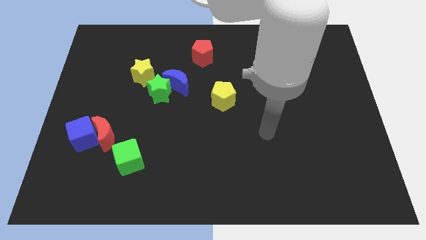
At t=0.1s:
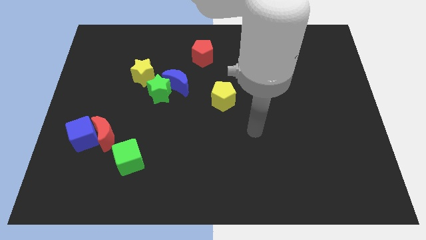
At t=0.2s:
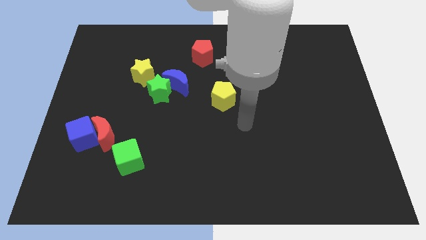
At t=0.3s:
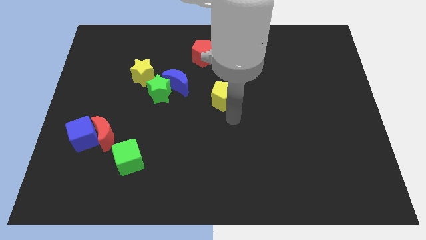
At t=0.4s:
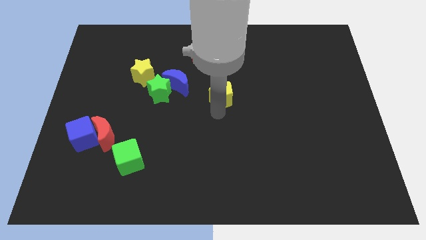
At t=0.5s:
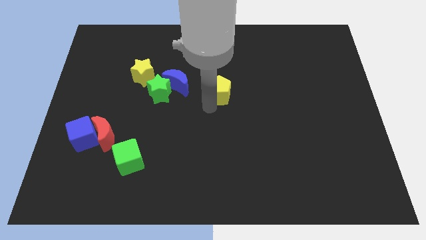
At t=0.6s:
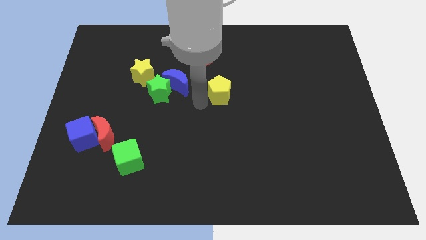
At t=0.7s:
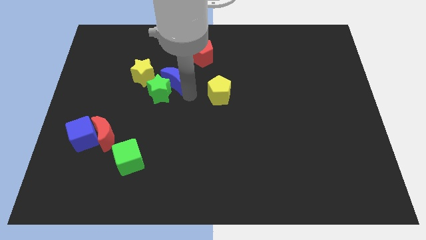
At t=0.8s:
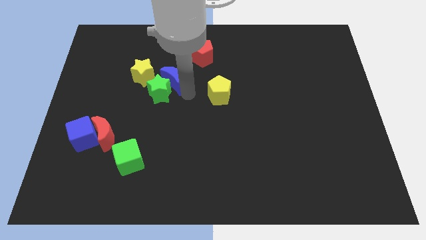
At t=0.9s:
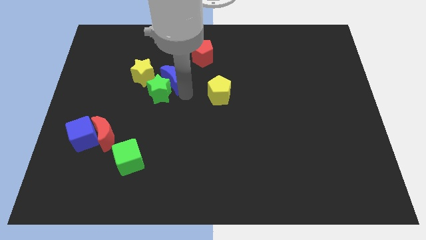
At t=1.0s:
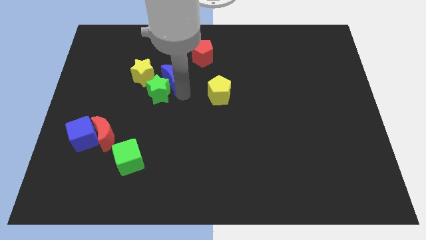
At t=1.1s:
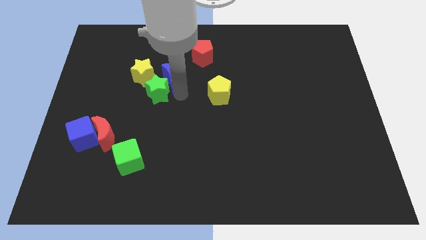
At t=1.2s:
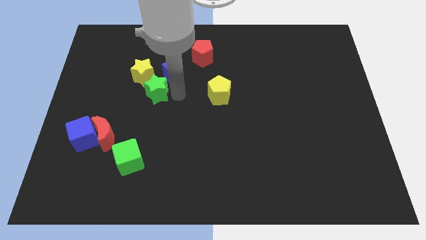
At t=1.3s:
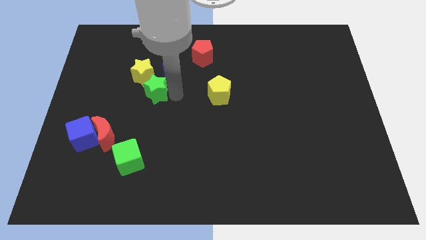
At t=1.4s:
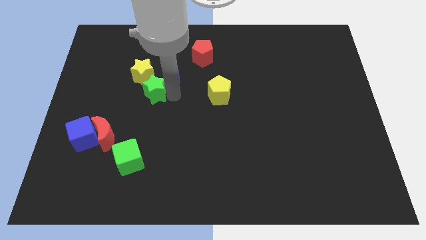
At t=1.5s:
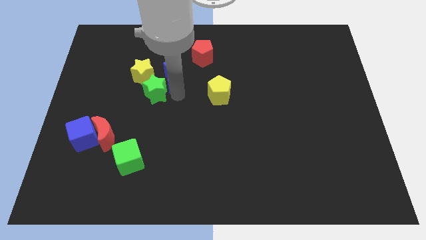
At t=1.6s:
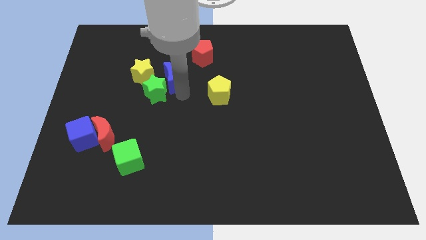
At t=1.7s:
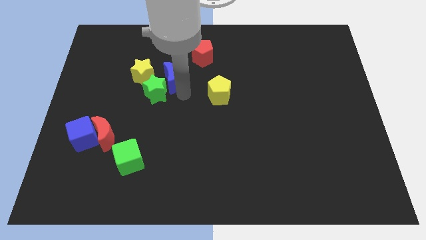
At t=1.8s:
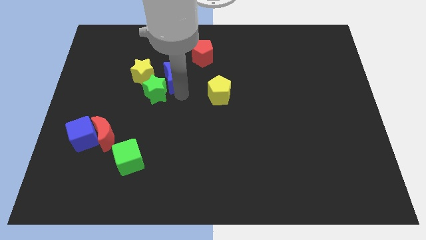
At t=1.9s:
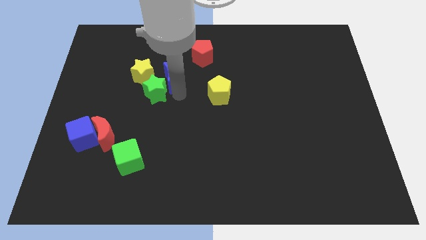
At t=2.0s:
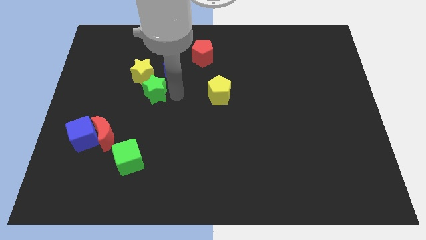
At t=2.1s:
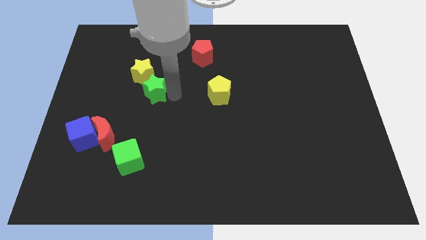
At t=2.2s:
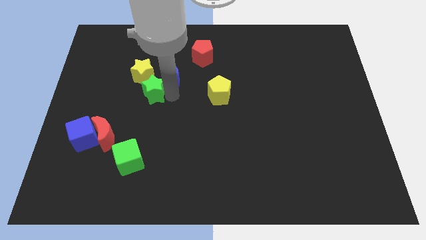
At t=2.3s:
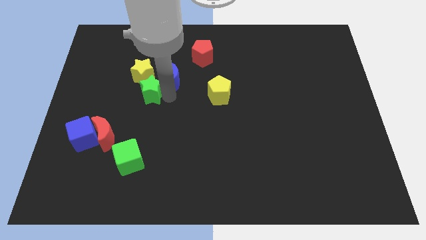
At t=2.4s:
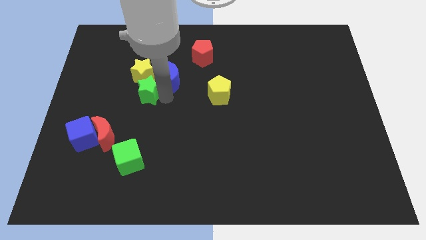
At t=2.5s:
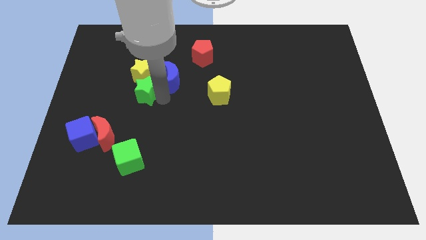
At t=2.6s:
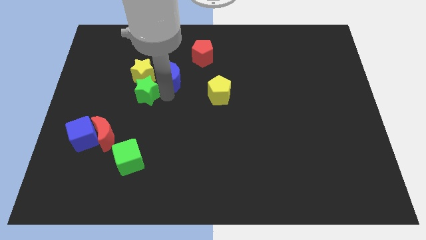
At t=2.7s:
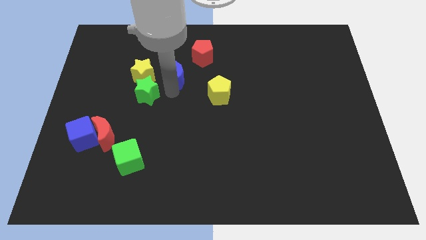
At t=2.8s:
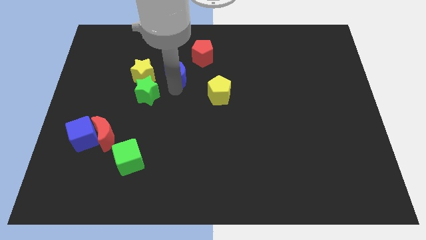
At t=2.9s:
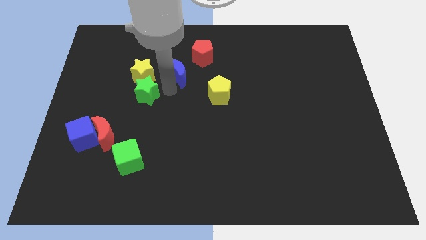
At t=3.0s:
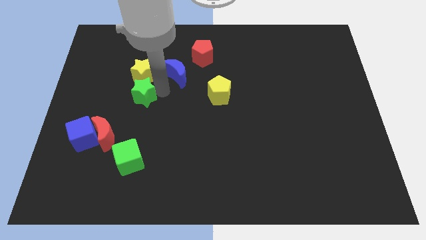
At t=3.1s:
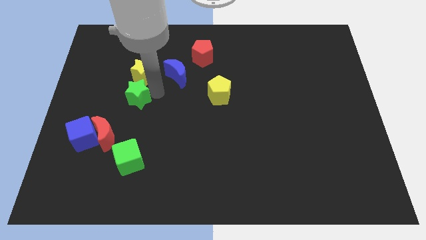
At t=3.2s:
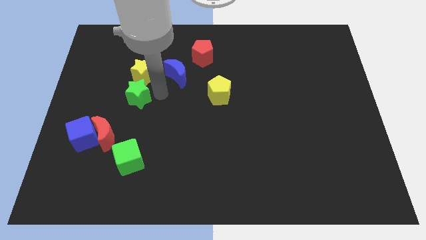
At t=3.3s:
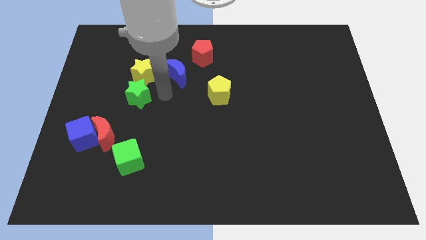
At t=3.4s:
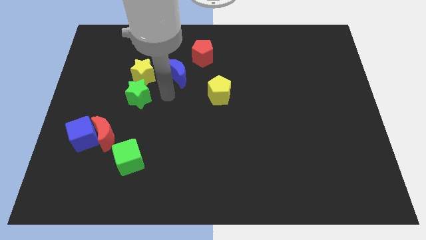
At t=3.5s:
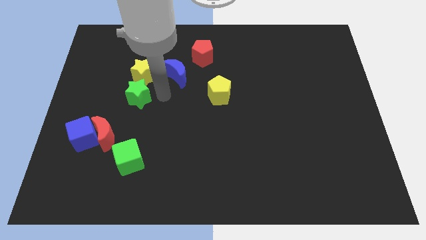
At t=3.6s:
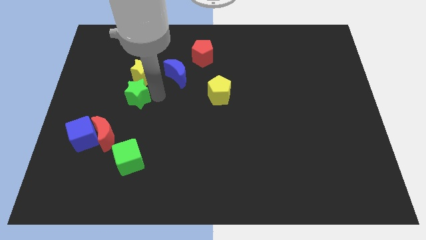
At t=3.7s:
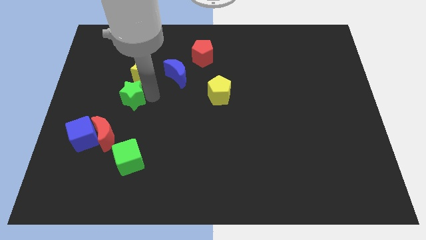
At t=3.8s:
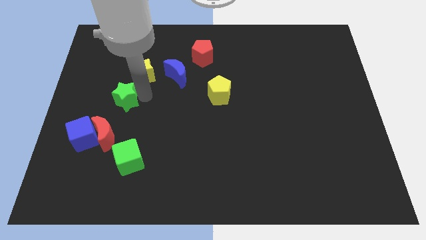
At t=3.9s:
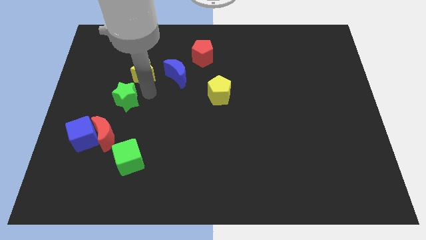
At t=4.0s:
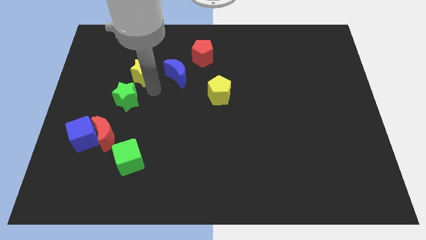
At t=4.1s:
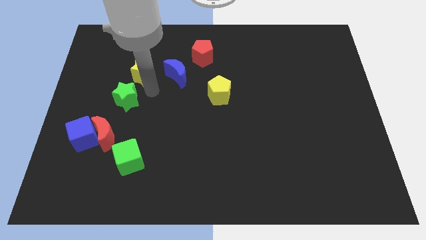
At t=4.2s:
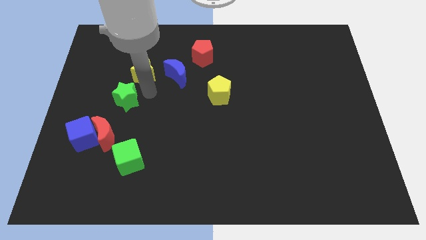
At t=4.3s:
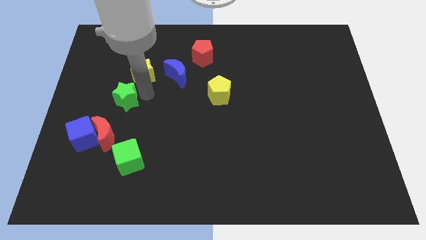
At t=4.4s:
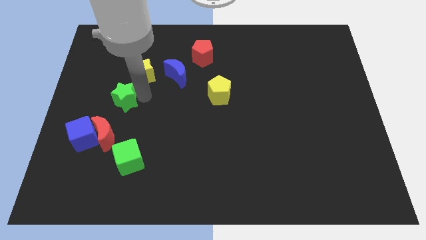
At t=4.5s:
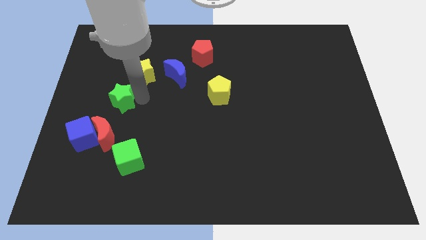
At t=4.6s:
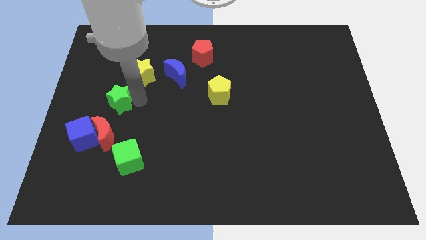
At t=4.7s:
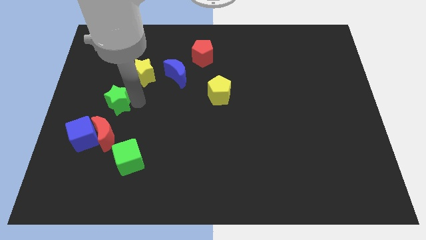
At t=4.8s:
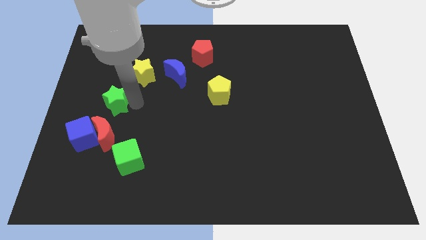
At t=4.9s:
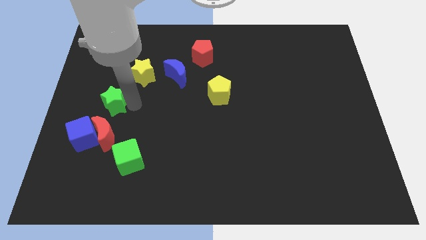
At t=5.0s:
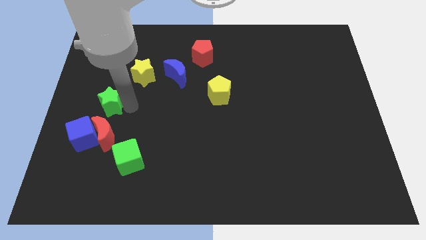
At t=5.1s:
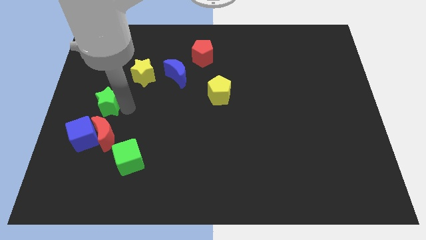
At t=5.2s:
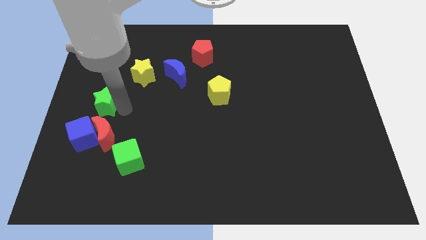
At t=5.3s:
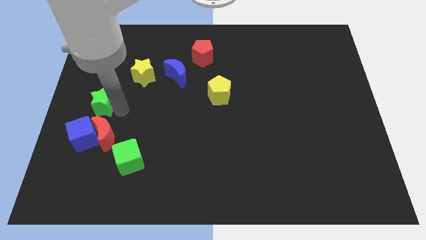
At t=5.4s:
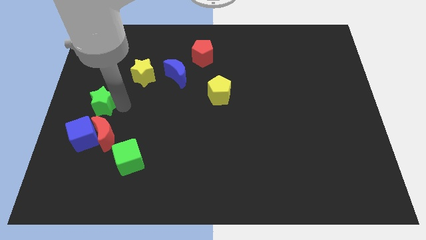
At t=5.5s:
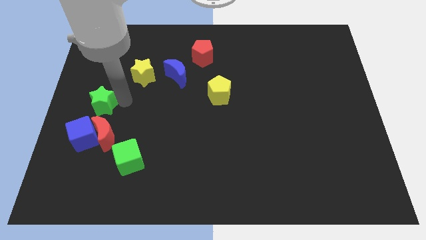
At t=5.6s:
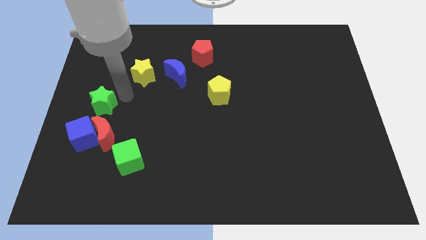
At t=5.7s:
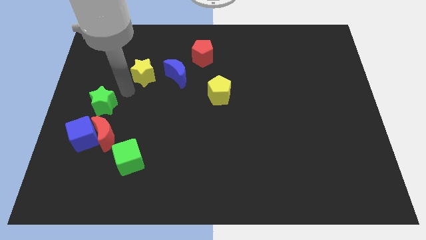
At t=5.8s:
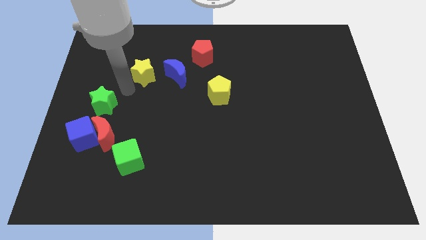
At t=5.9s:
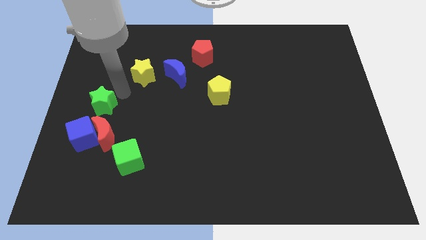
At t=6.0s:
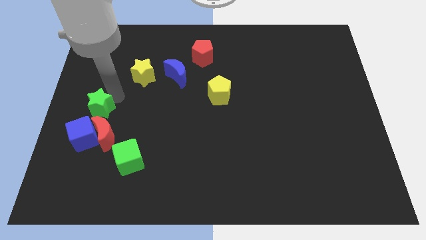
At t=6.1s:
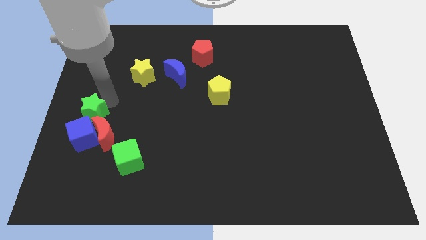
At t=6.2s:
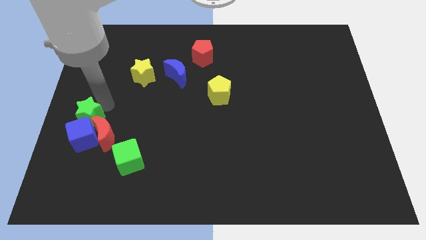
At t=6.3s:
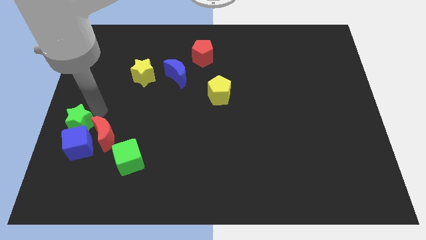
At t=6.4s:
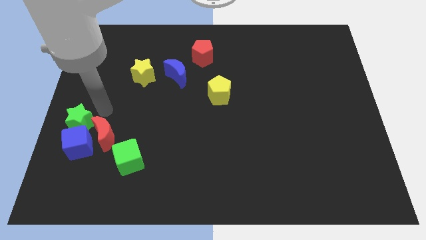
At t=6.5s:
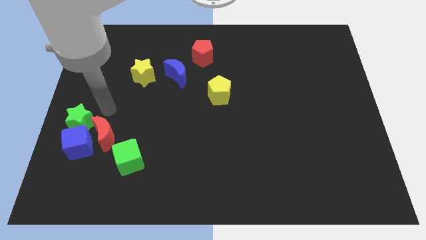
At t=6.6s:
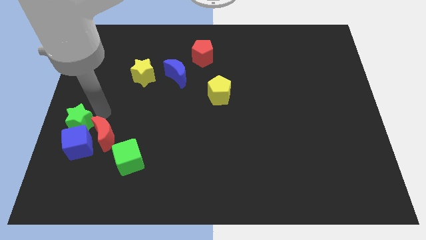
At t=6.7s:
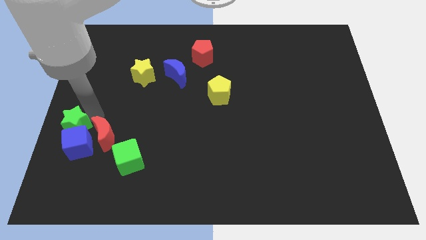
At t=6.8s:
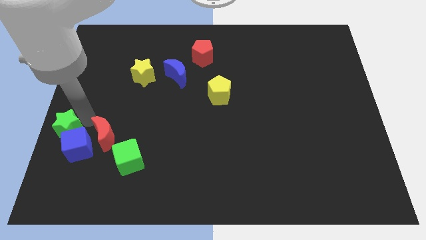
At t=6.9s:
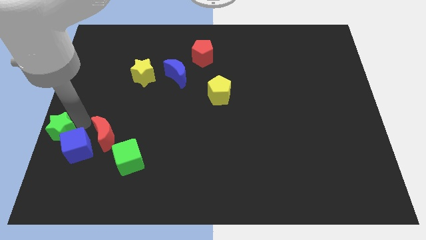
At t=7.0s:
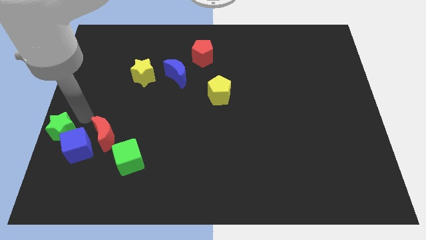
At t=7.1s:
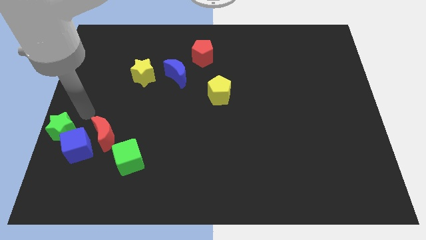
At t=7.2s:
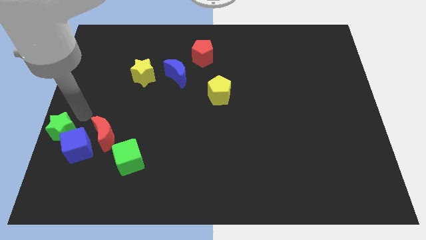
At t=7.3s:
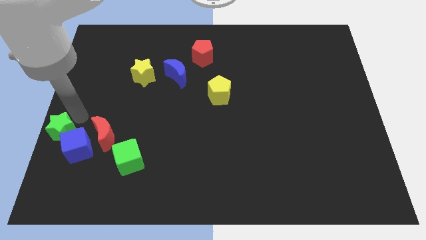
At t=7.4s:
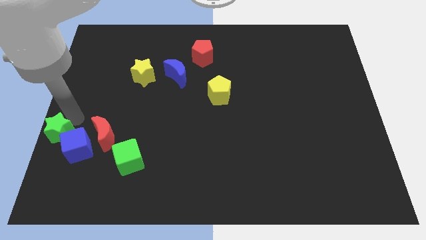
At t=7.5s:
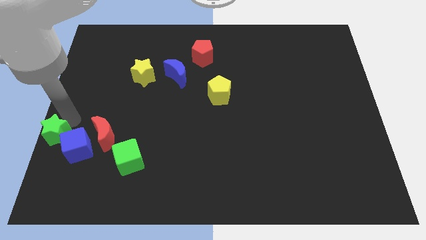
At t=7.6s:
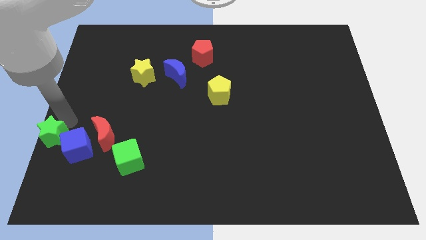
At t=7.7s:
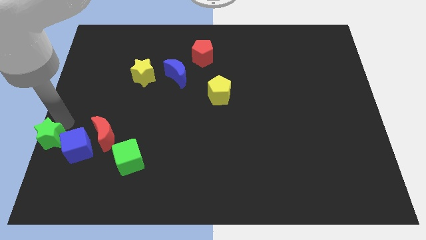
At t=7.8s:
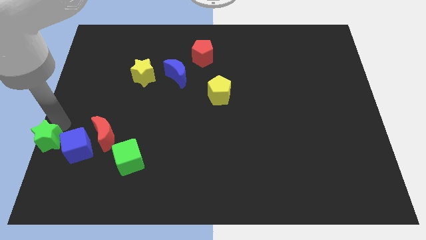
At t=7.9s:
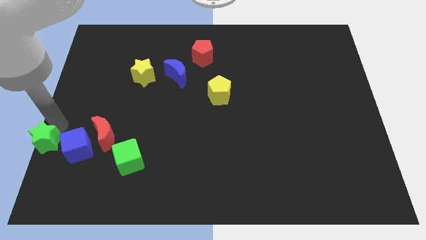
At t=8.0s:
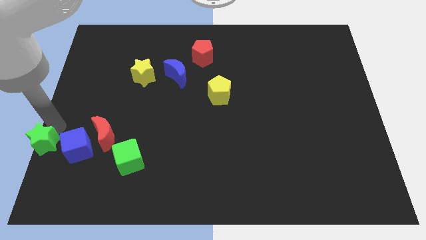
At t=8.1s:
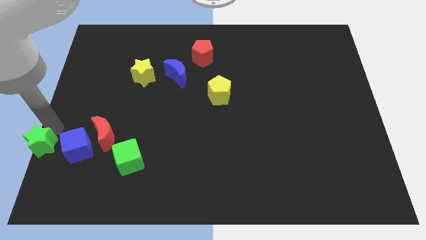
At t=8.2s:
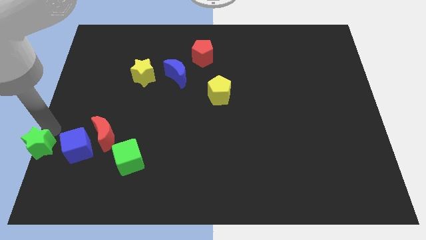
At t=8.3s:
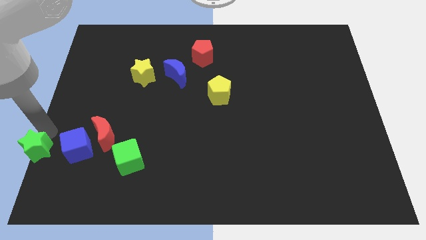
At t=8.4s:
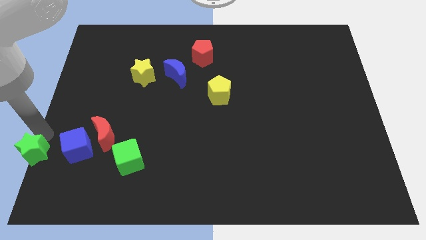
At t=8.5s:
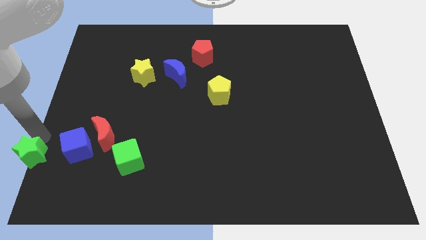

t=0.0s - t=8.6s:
push the green star to the bottom left corner
